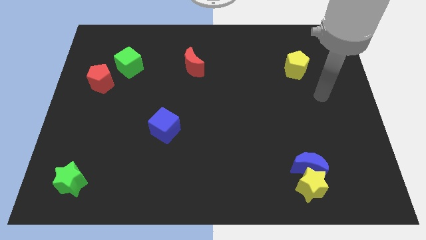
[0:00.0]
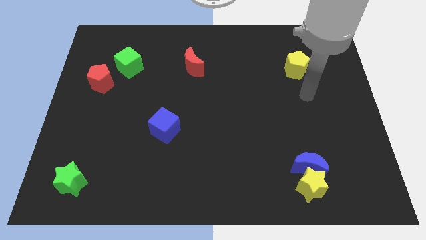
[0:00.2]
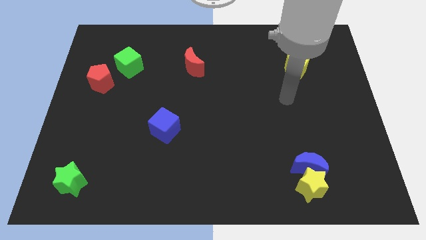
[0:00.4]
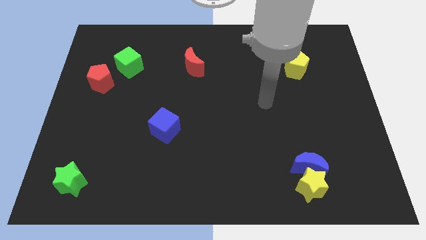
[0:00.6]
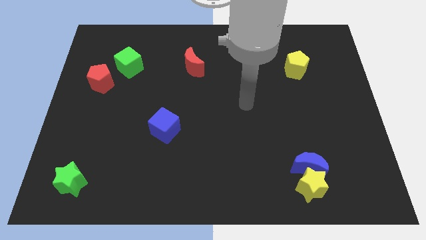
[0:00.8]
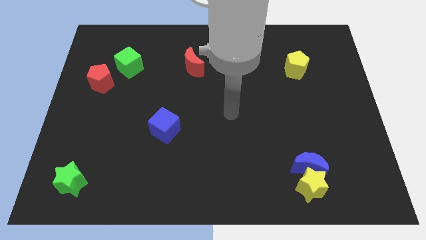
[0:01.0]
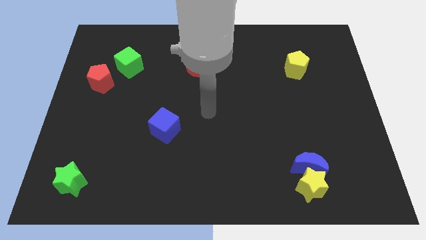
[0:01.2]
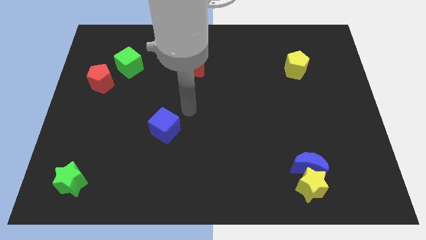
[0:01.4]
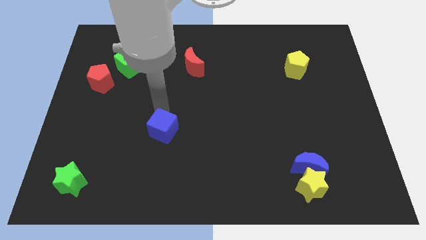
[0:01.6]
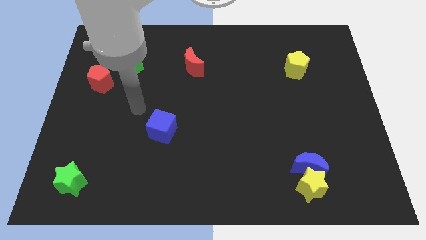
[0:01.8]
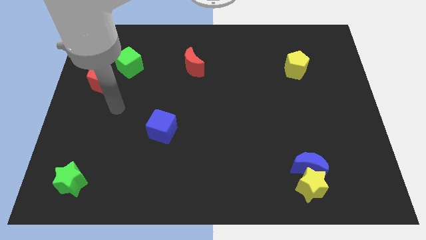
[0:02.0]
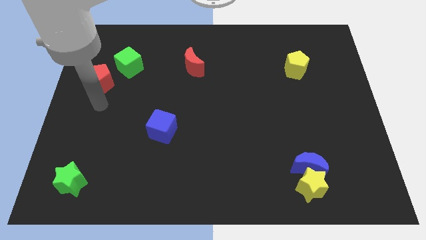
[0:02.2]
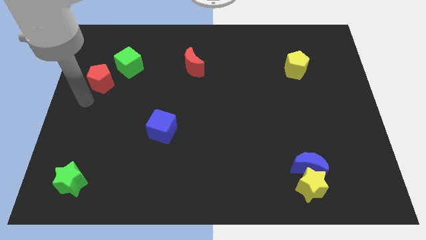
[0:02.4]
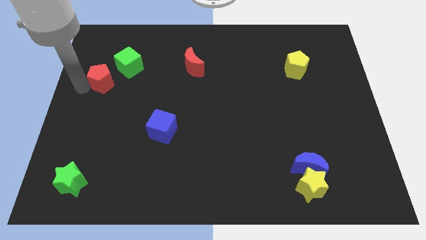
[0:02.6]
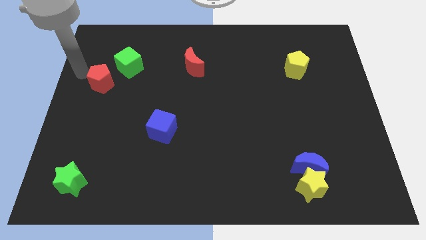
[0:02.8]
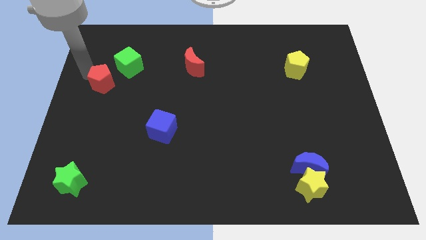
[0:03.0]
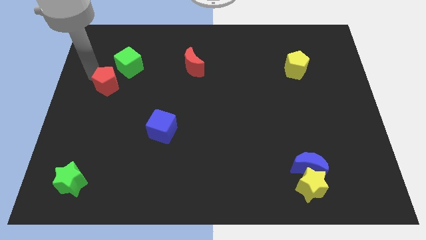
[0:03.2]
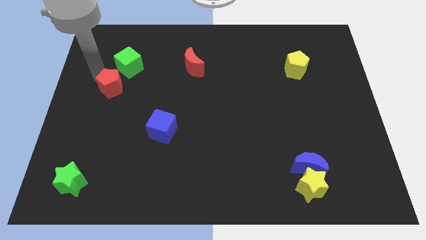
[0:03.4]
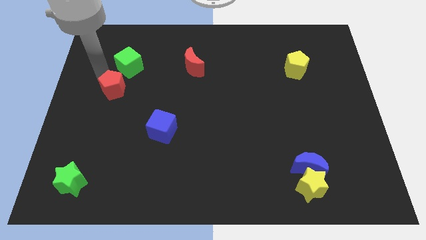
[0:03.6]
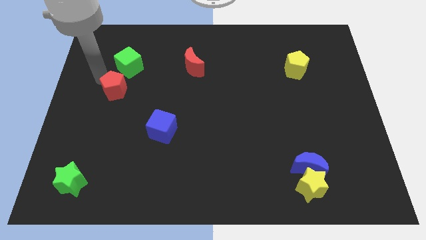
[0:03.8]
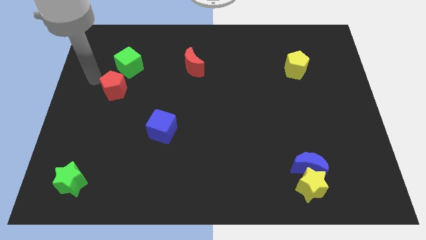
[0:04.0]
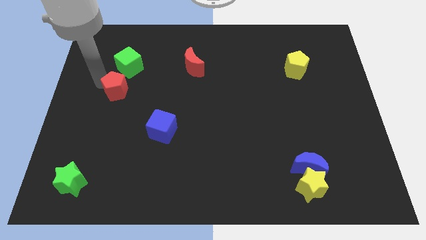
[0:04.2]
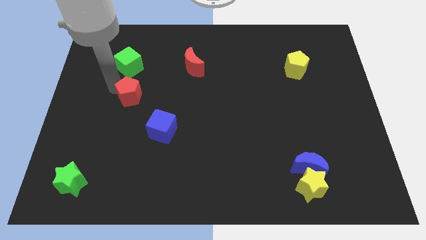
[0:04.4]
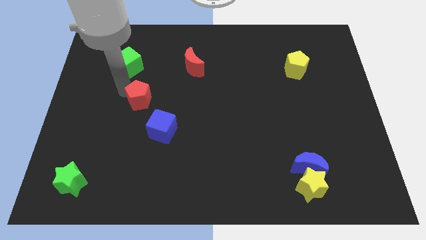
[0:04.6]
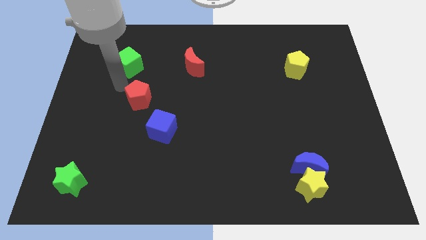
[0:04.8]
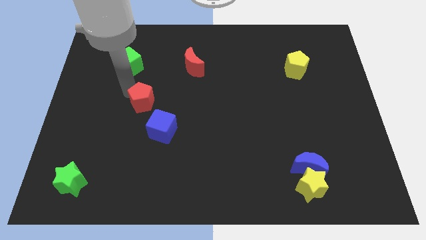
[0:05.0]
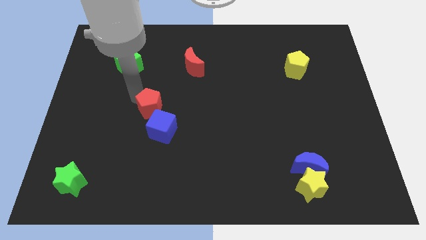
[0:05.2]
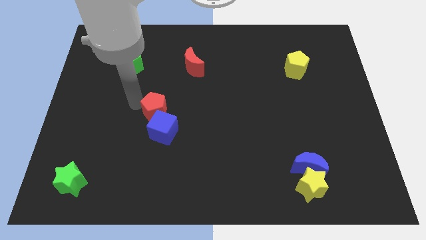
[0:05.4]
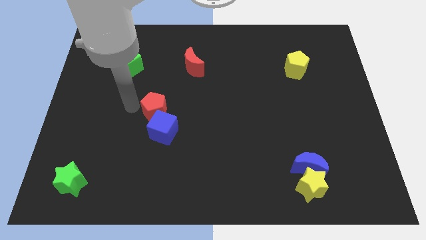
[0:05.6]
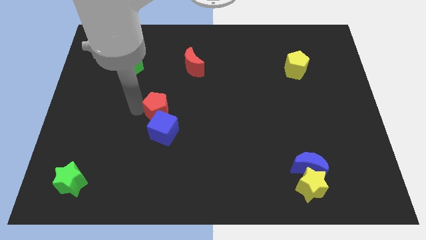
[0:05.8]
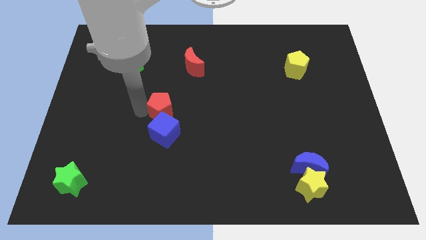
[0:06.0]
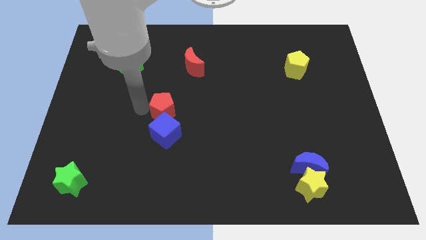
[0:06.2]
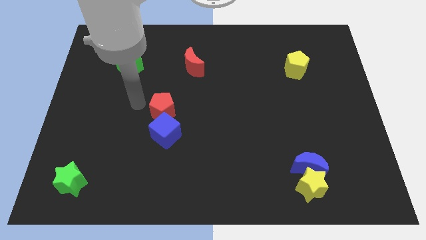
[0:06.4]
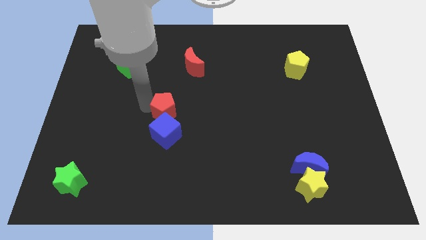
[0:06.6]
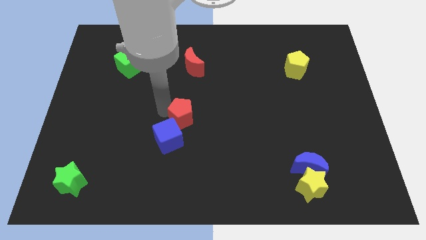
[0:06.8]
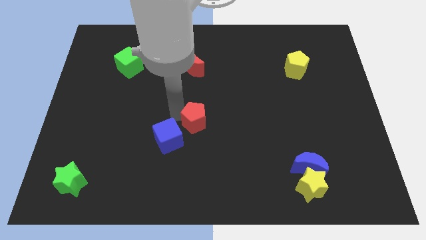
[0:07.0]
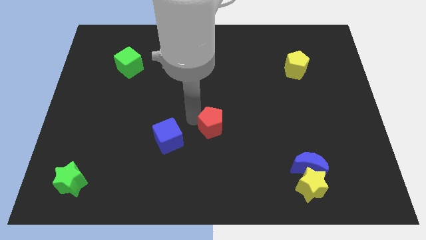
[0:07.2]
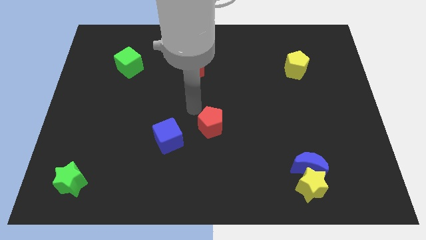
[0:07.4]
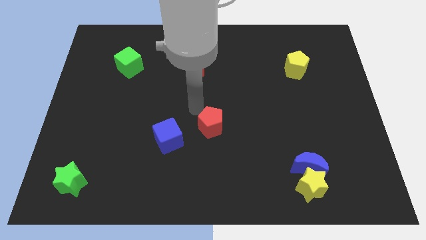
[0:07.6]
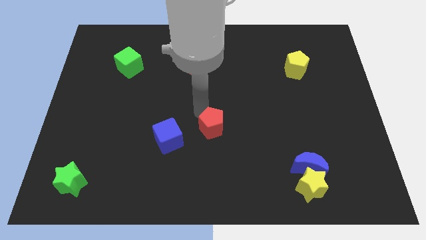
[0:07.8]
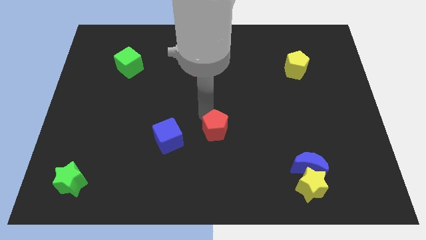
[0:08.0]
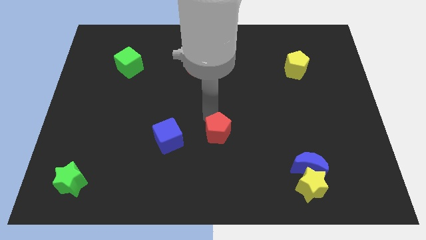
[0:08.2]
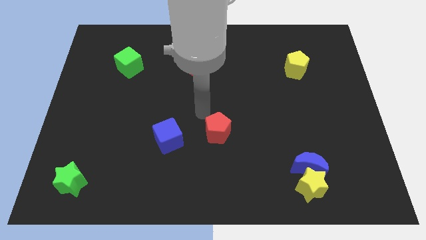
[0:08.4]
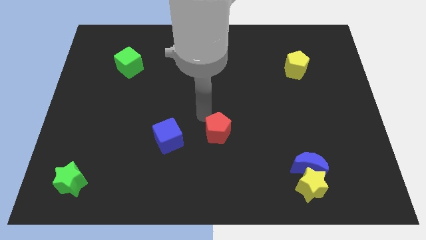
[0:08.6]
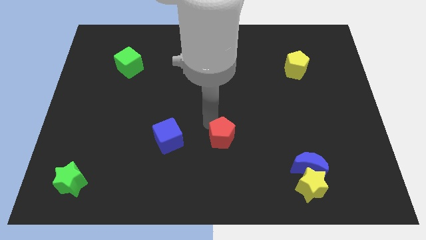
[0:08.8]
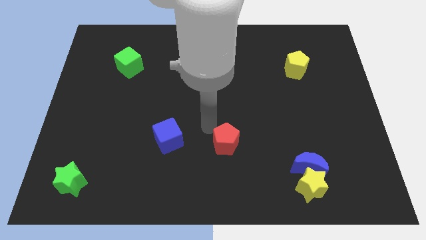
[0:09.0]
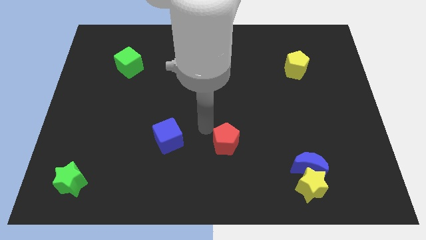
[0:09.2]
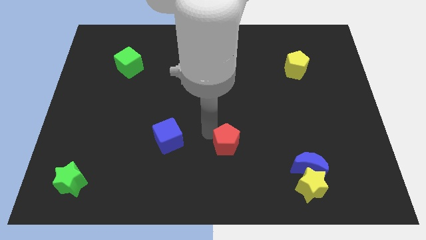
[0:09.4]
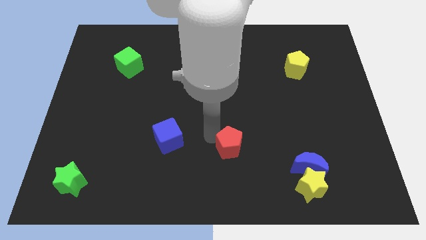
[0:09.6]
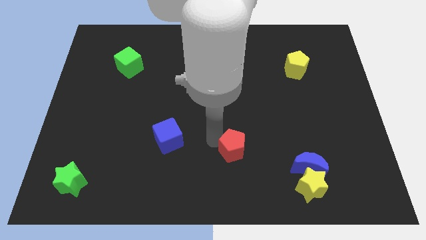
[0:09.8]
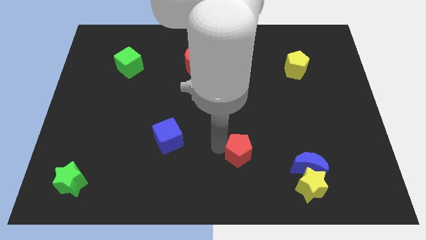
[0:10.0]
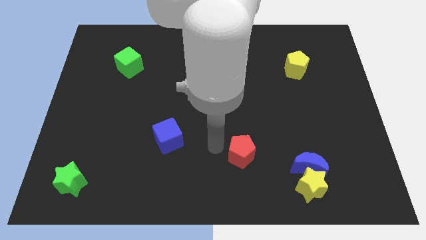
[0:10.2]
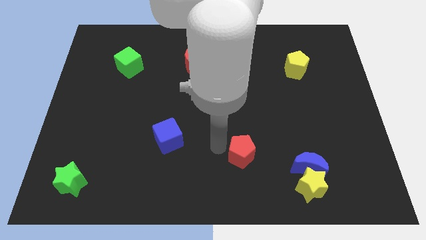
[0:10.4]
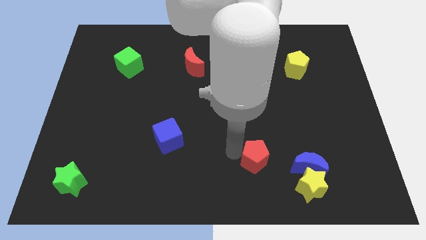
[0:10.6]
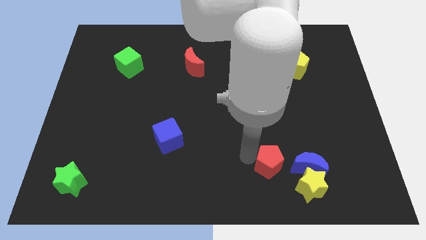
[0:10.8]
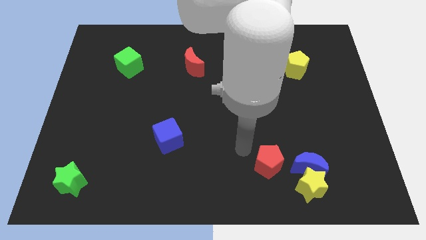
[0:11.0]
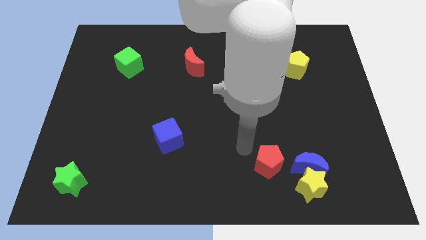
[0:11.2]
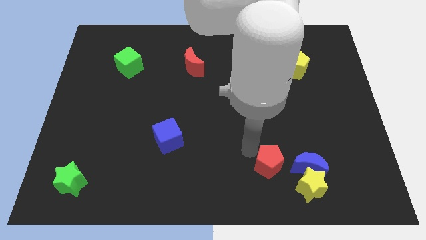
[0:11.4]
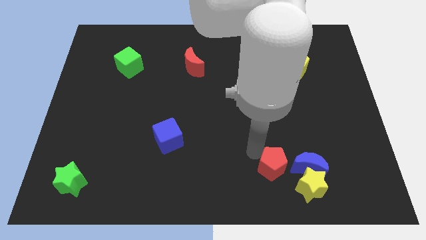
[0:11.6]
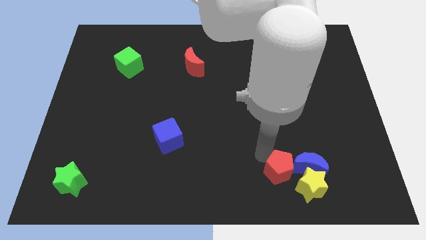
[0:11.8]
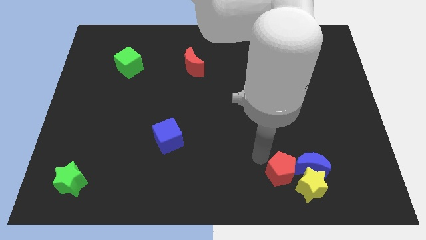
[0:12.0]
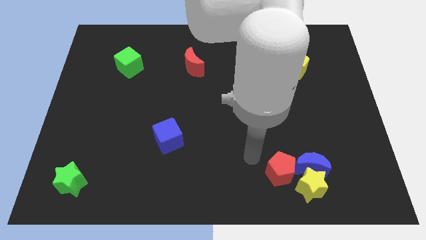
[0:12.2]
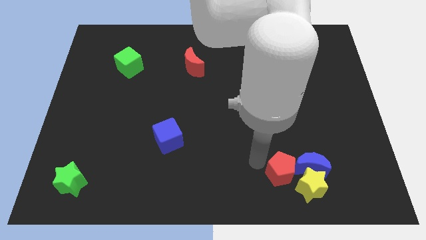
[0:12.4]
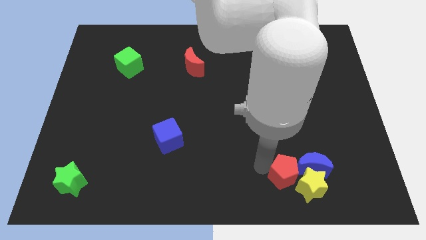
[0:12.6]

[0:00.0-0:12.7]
push the red pentagon towards the yellow star

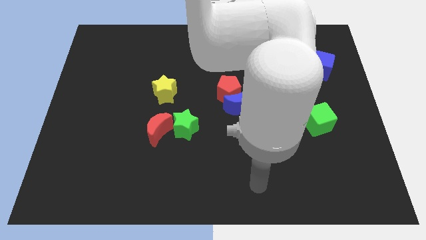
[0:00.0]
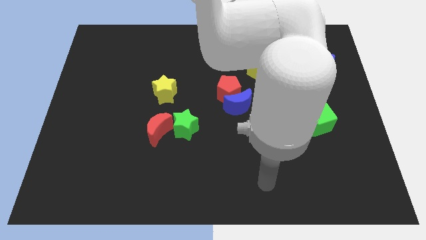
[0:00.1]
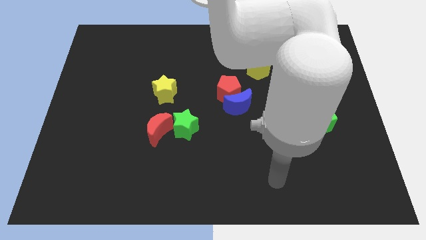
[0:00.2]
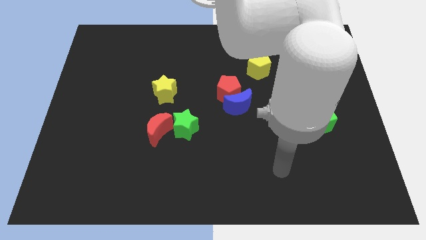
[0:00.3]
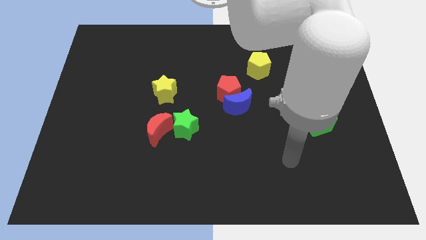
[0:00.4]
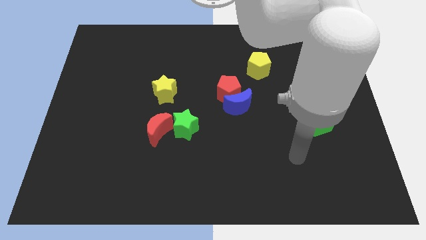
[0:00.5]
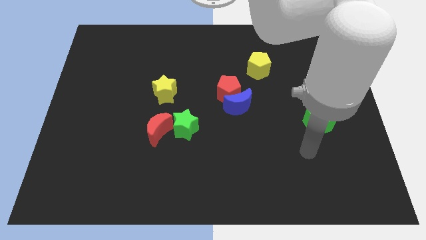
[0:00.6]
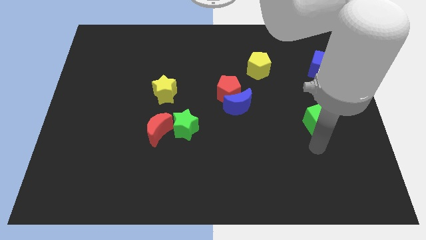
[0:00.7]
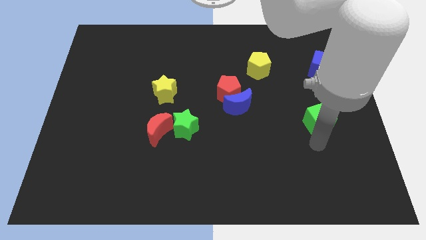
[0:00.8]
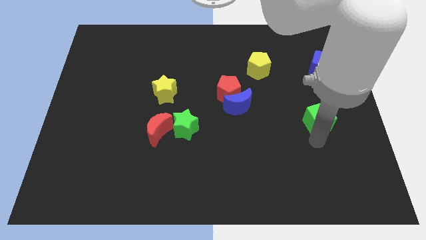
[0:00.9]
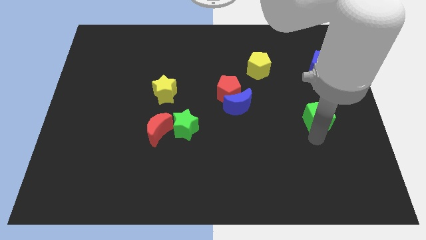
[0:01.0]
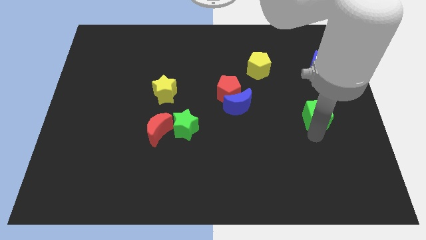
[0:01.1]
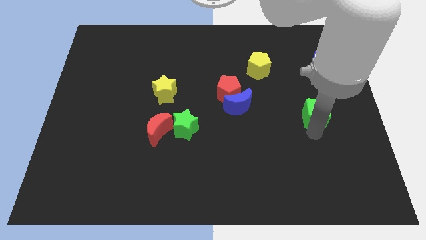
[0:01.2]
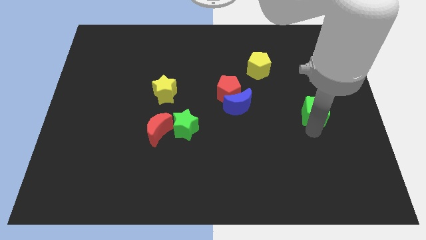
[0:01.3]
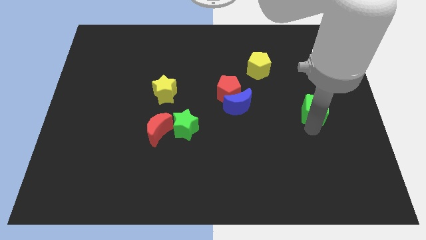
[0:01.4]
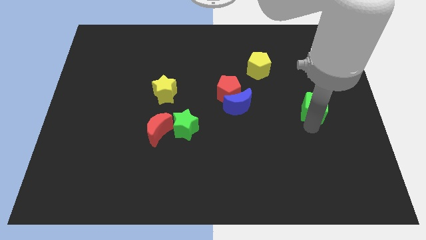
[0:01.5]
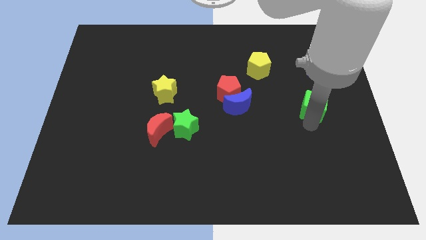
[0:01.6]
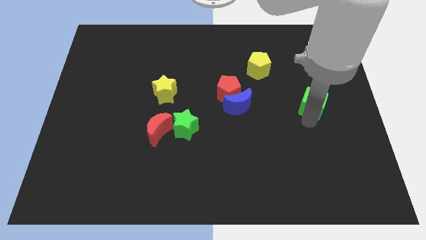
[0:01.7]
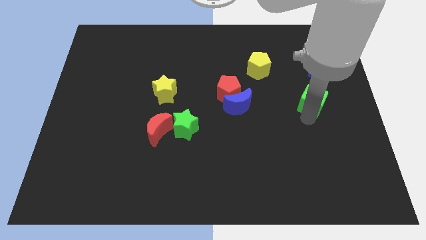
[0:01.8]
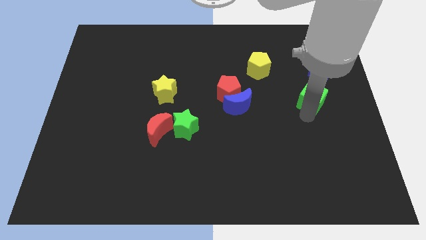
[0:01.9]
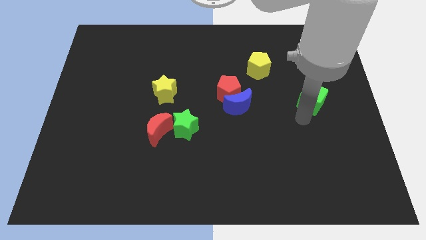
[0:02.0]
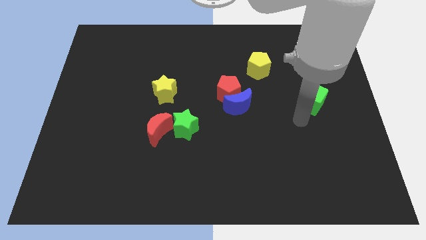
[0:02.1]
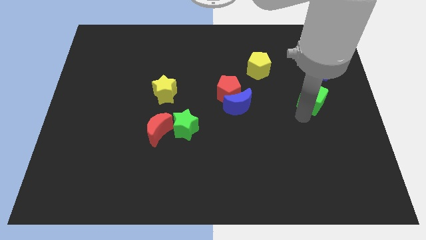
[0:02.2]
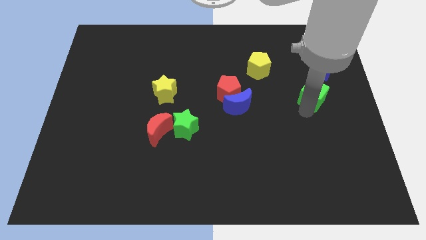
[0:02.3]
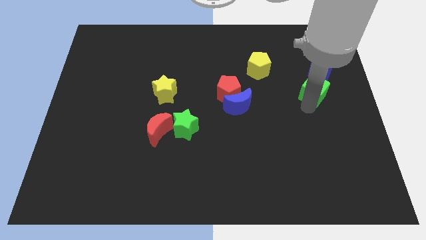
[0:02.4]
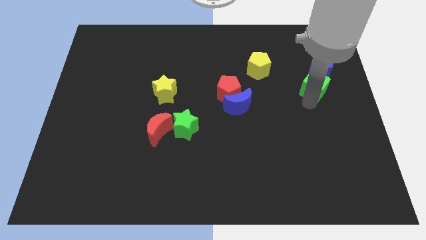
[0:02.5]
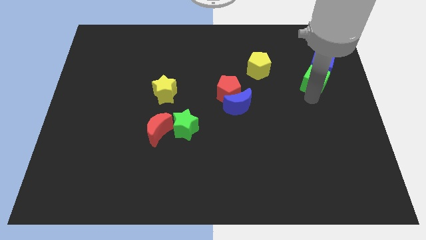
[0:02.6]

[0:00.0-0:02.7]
slide the green cube to the blue cube
